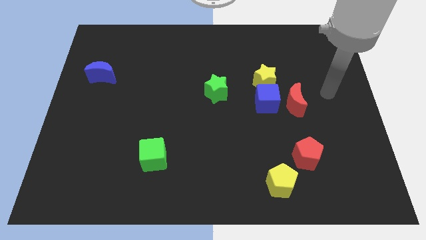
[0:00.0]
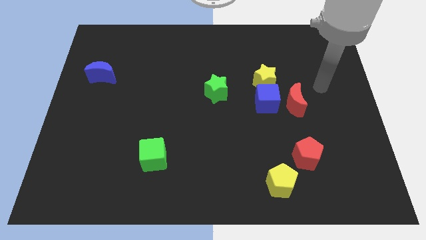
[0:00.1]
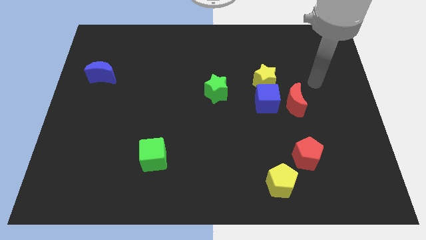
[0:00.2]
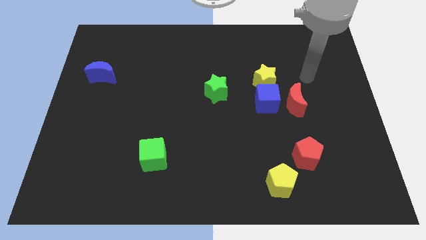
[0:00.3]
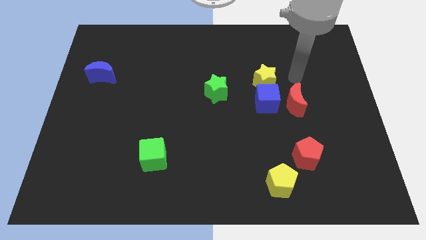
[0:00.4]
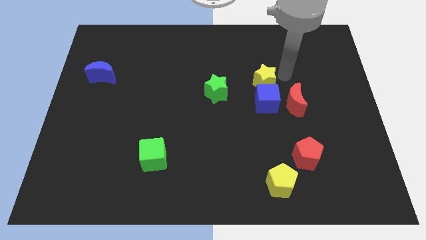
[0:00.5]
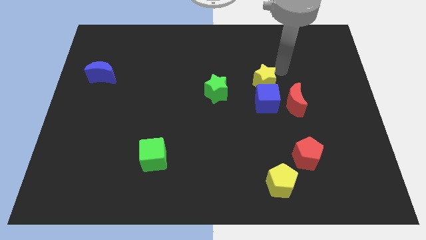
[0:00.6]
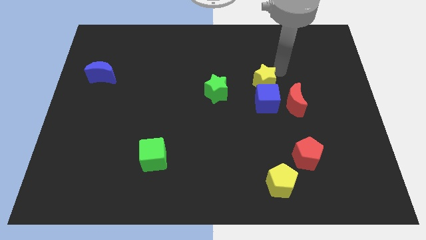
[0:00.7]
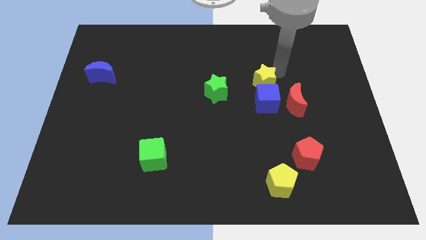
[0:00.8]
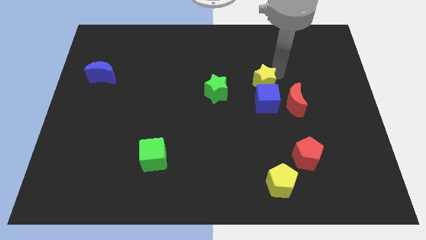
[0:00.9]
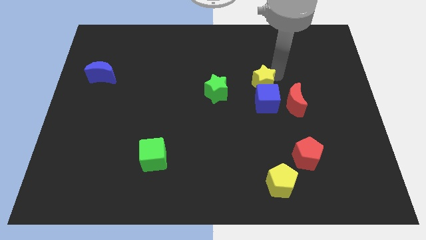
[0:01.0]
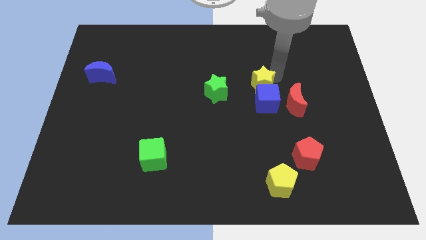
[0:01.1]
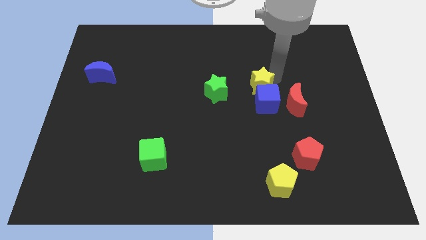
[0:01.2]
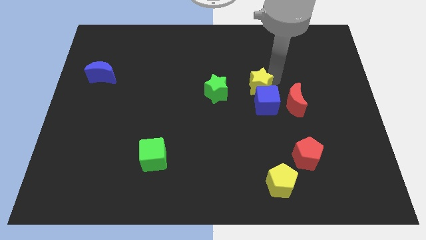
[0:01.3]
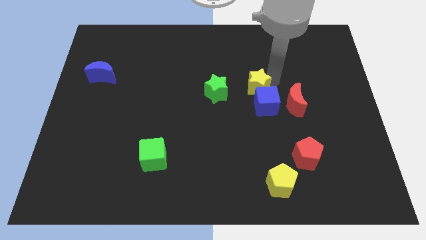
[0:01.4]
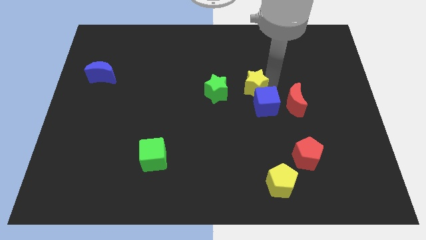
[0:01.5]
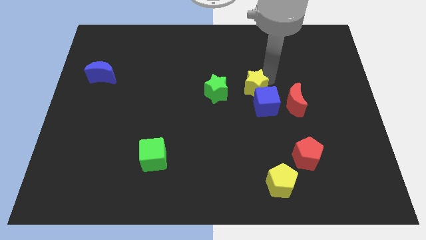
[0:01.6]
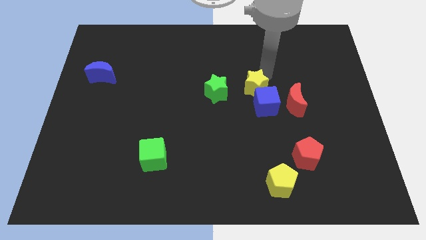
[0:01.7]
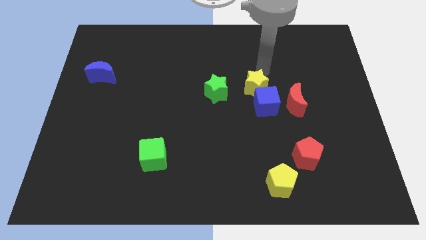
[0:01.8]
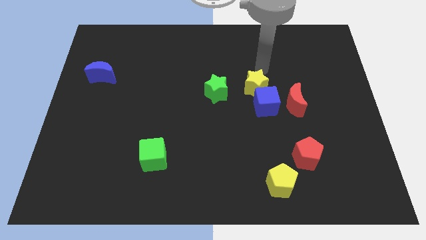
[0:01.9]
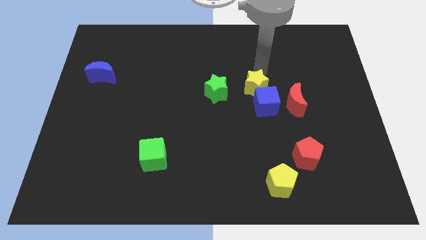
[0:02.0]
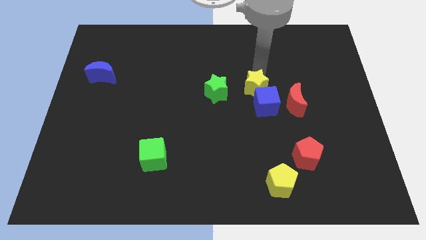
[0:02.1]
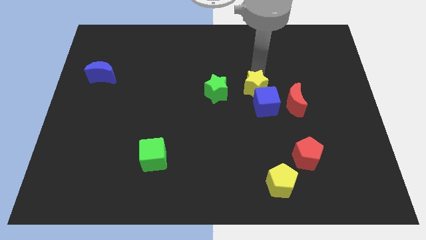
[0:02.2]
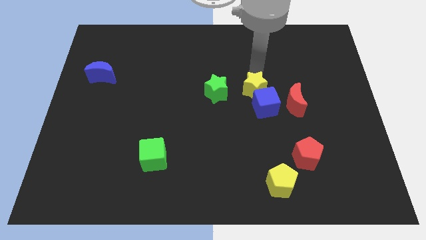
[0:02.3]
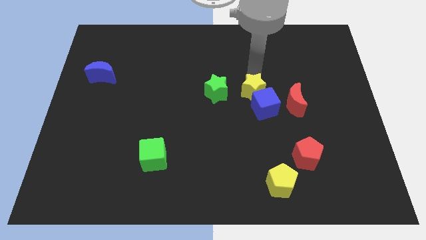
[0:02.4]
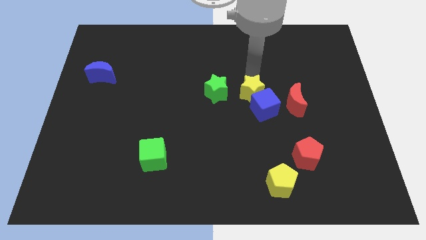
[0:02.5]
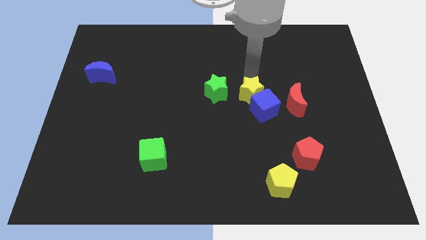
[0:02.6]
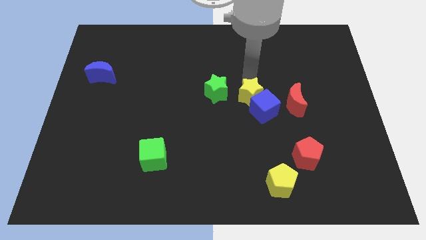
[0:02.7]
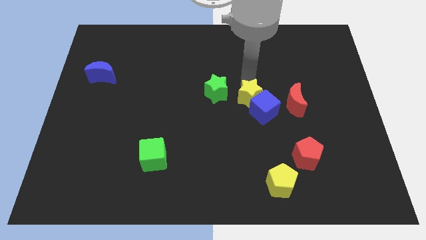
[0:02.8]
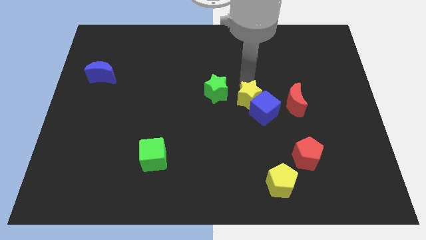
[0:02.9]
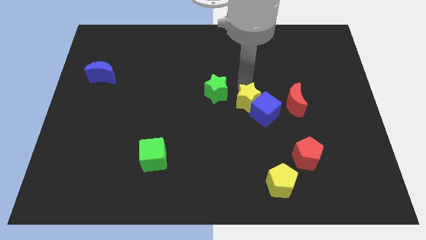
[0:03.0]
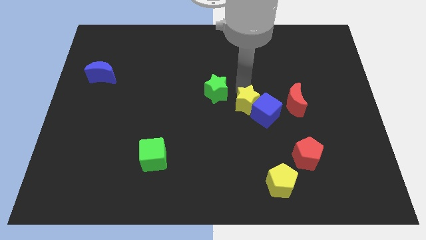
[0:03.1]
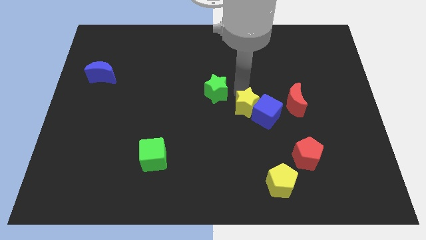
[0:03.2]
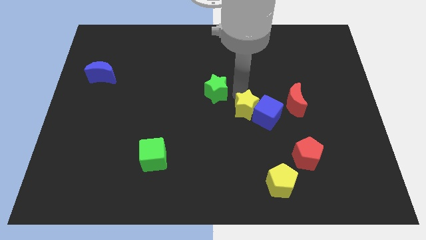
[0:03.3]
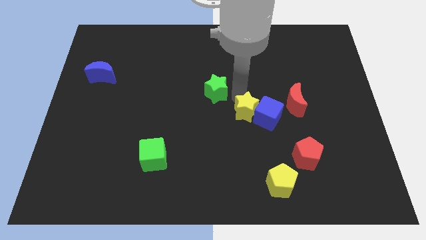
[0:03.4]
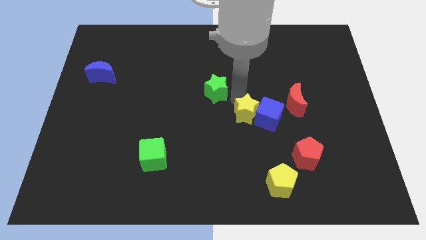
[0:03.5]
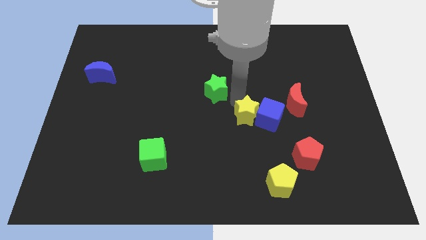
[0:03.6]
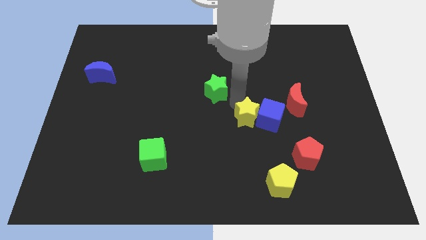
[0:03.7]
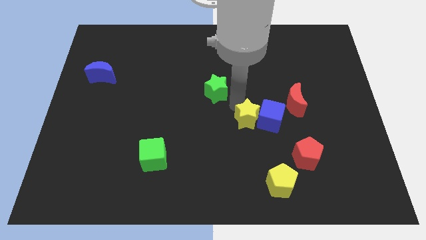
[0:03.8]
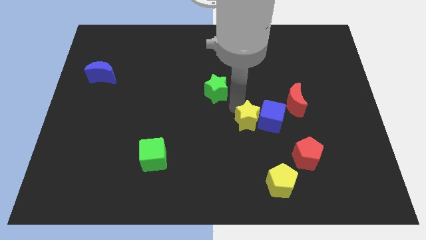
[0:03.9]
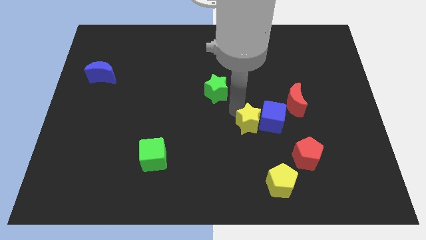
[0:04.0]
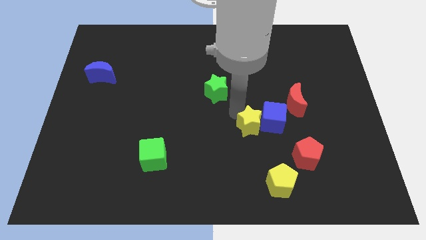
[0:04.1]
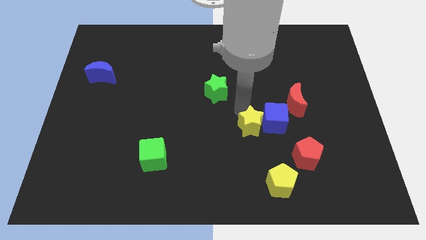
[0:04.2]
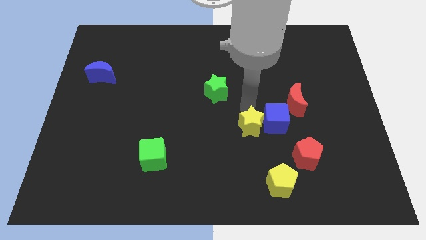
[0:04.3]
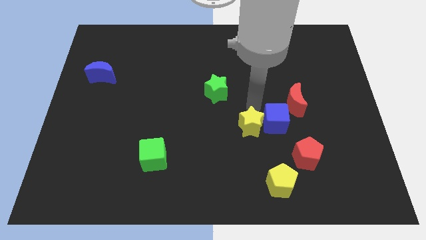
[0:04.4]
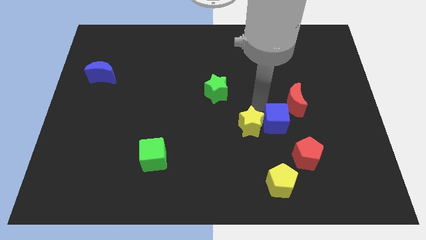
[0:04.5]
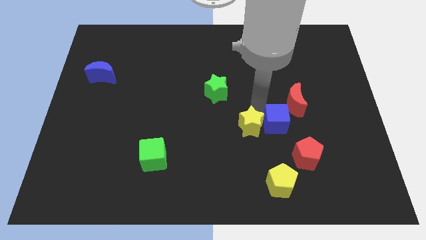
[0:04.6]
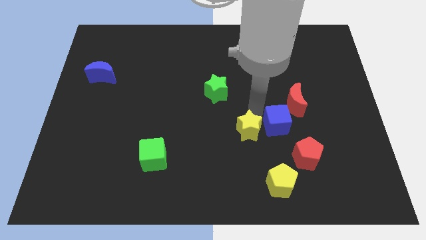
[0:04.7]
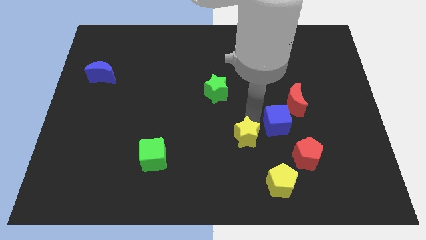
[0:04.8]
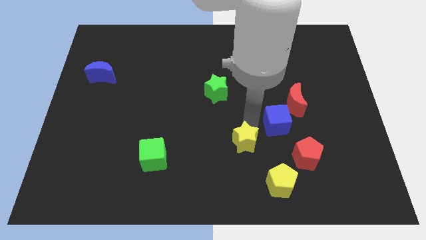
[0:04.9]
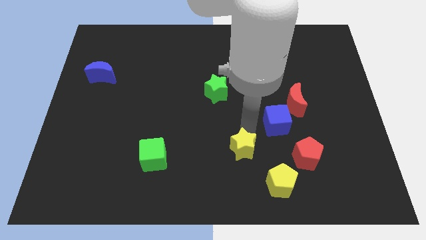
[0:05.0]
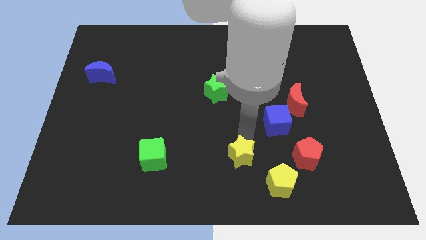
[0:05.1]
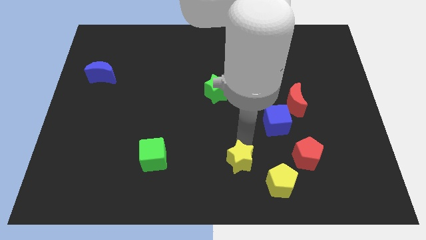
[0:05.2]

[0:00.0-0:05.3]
push the yellow star to the bottom

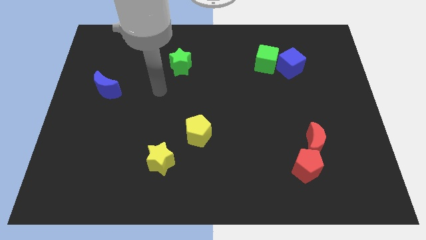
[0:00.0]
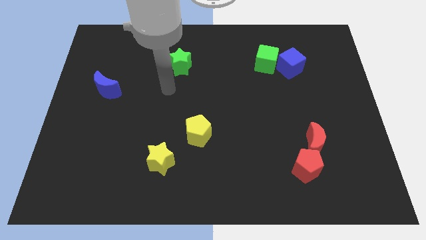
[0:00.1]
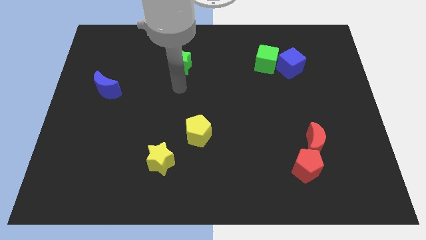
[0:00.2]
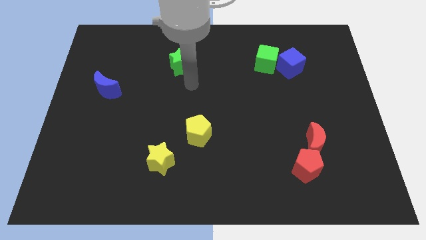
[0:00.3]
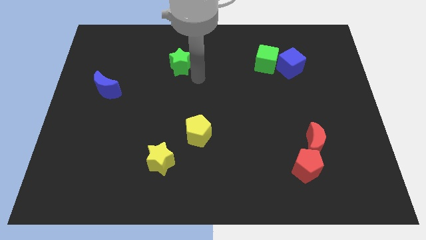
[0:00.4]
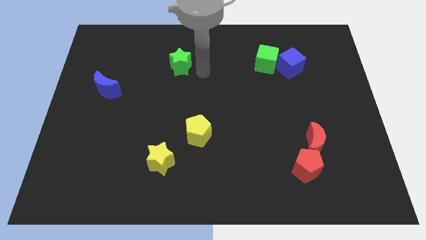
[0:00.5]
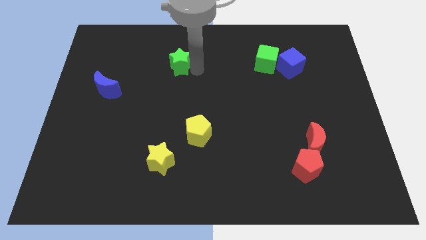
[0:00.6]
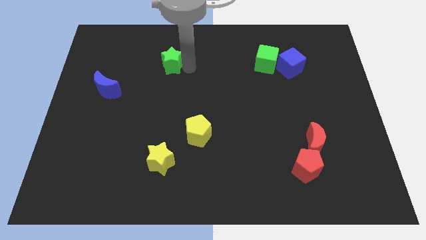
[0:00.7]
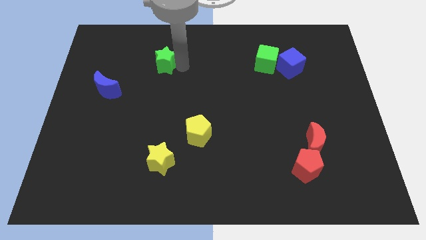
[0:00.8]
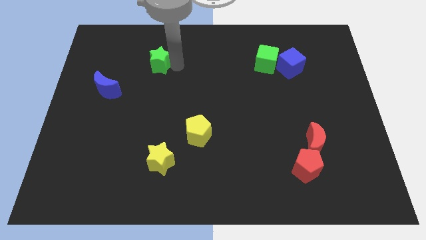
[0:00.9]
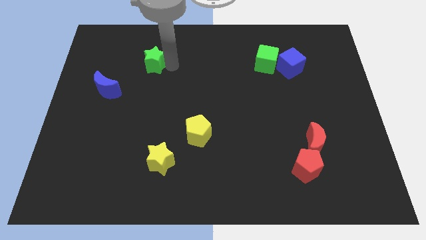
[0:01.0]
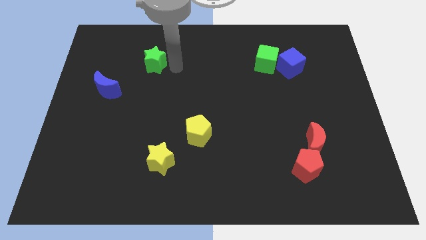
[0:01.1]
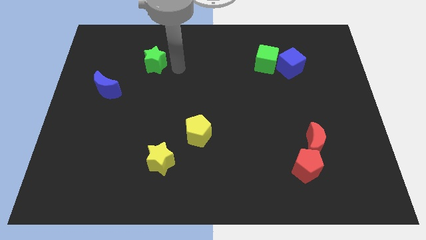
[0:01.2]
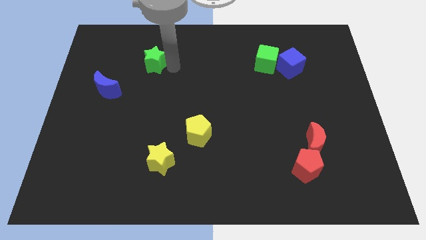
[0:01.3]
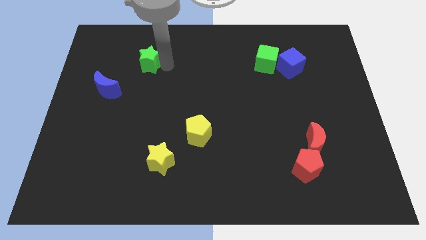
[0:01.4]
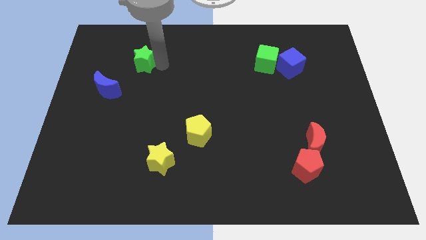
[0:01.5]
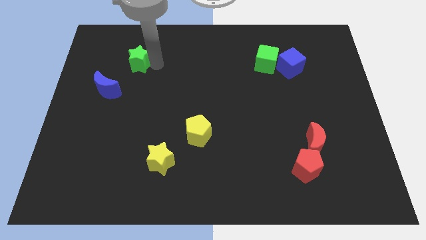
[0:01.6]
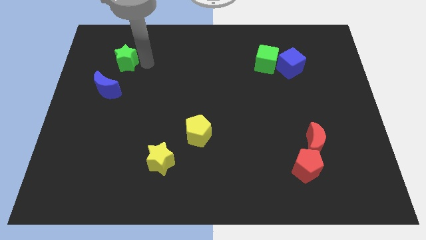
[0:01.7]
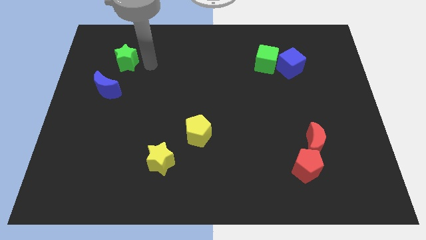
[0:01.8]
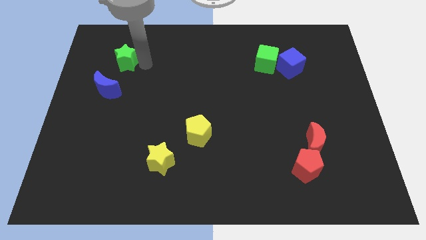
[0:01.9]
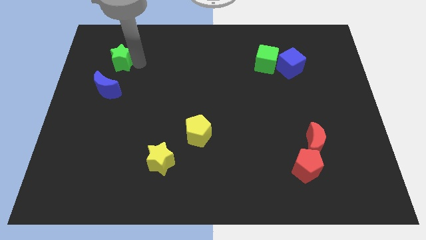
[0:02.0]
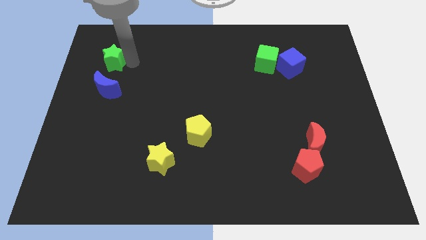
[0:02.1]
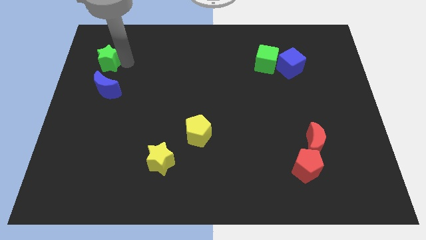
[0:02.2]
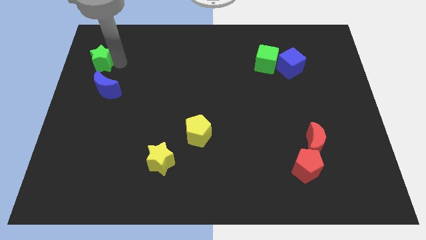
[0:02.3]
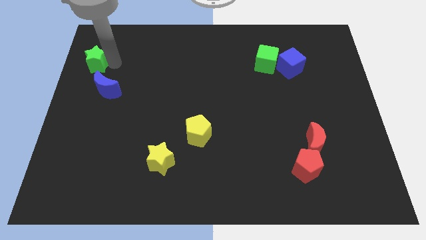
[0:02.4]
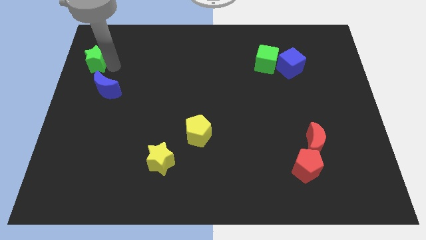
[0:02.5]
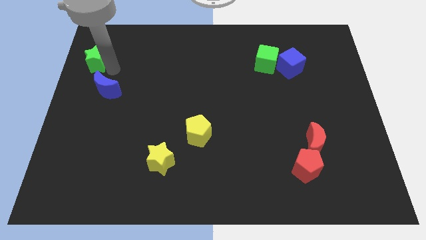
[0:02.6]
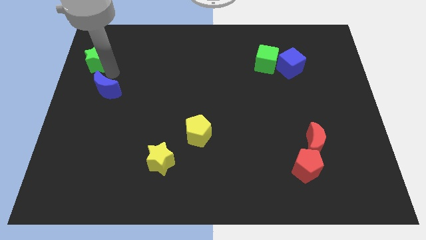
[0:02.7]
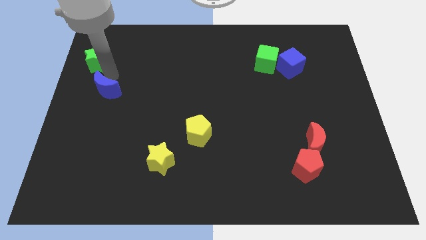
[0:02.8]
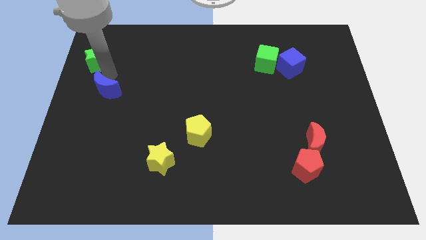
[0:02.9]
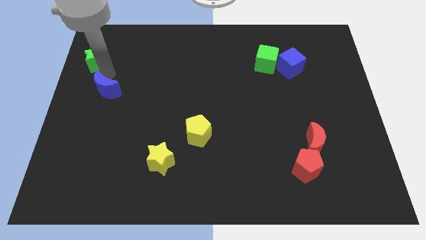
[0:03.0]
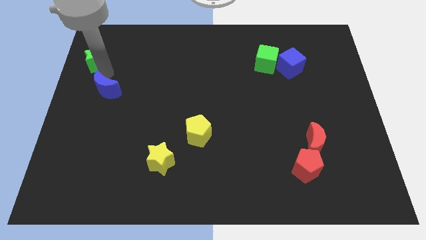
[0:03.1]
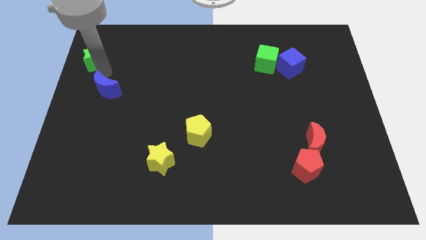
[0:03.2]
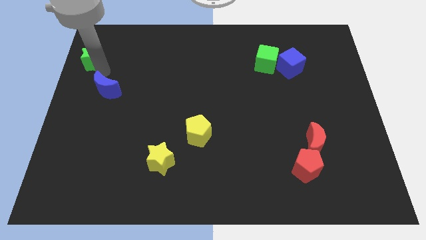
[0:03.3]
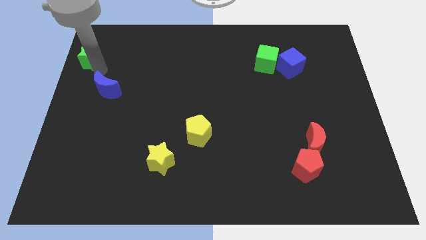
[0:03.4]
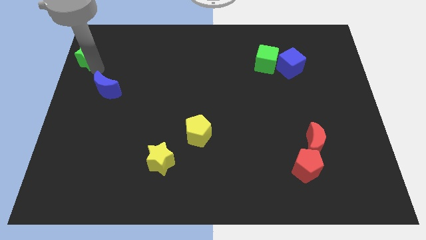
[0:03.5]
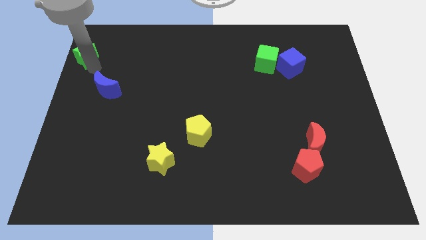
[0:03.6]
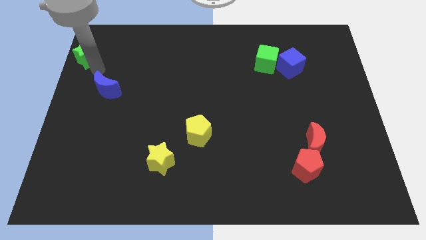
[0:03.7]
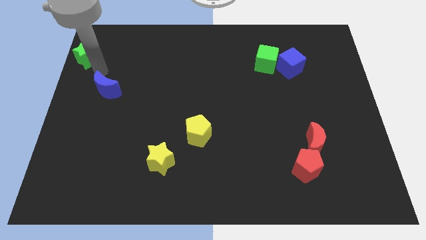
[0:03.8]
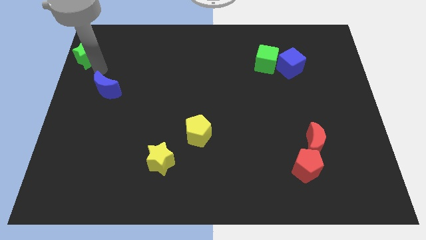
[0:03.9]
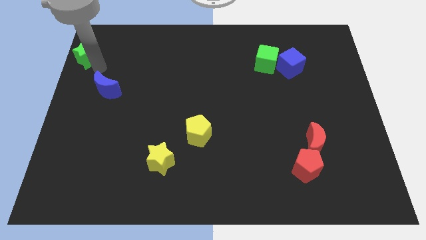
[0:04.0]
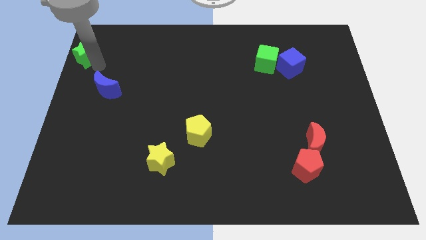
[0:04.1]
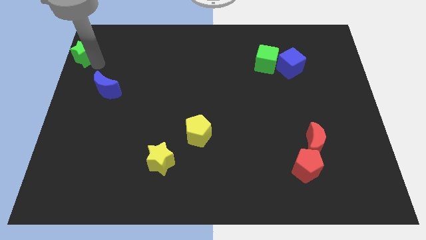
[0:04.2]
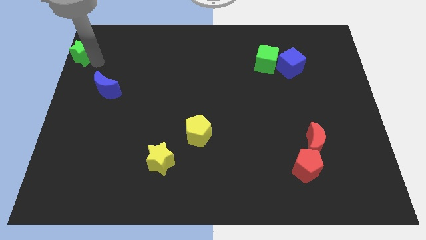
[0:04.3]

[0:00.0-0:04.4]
put the green star to the upper left corner
